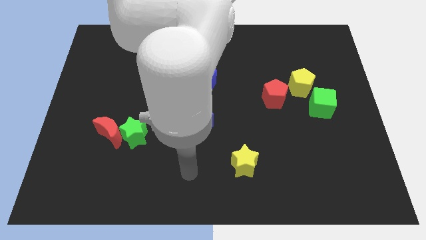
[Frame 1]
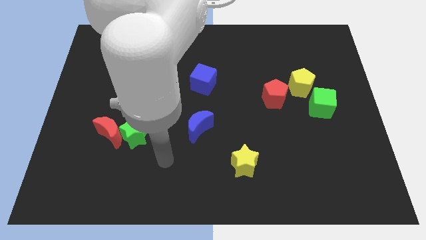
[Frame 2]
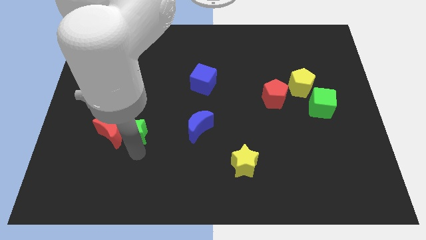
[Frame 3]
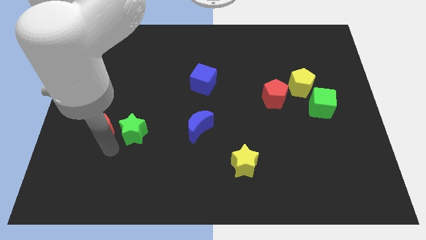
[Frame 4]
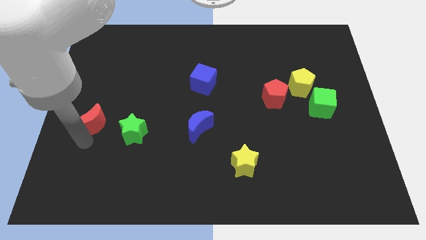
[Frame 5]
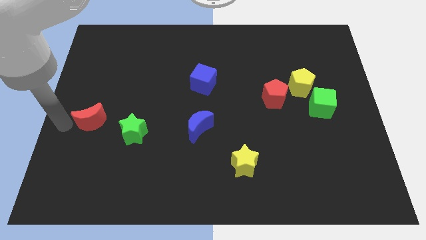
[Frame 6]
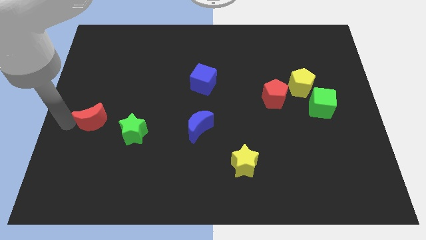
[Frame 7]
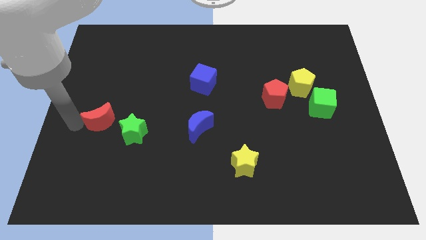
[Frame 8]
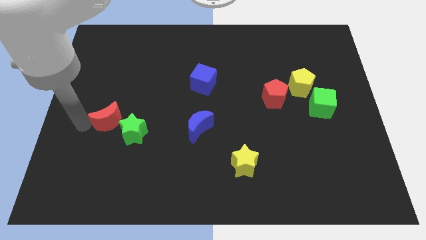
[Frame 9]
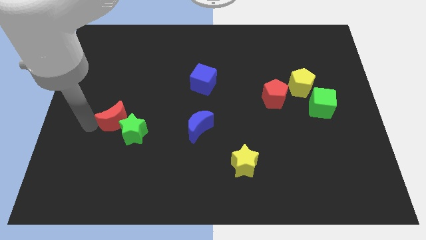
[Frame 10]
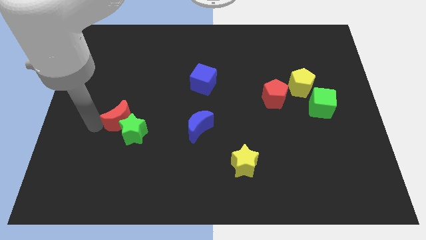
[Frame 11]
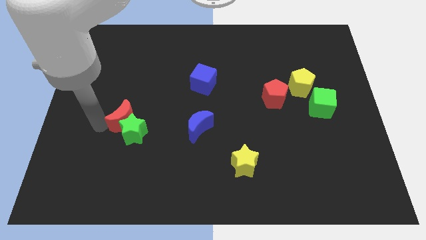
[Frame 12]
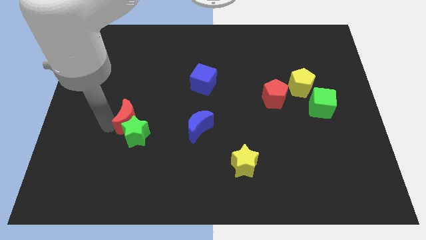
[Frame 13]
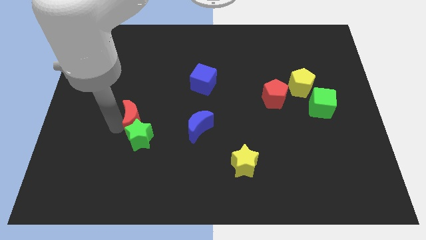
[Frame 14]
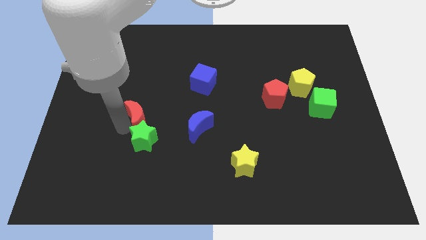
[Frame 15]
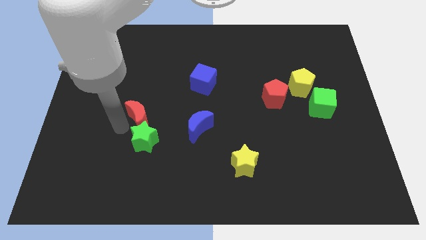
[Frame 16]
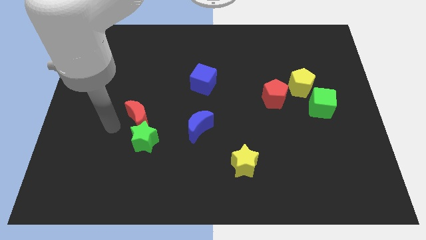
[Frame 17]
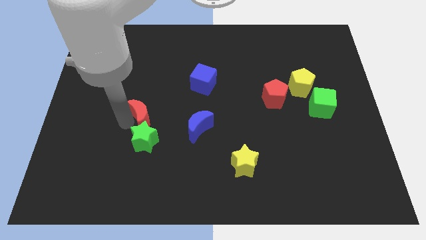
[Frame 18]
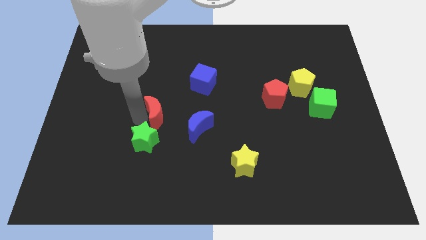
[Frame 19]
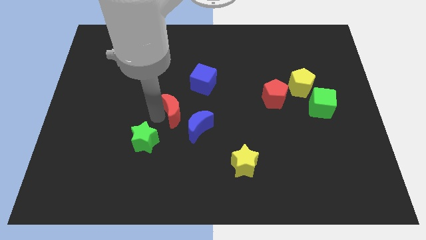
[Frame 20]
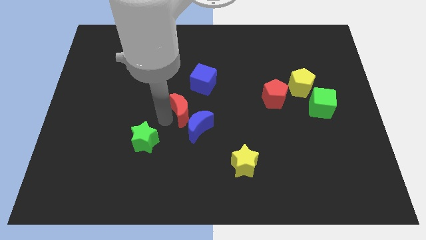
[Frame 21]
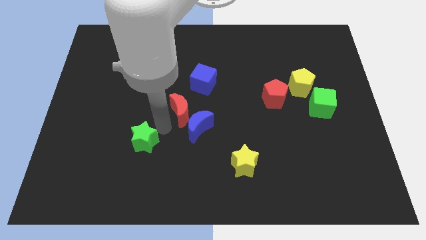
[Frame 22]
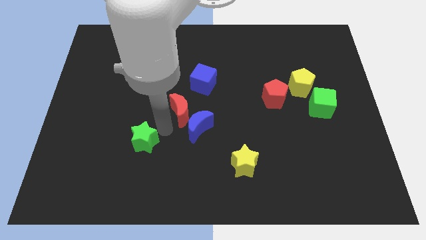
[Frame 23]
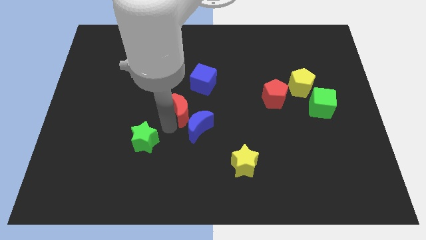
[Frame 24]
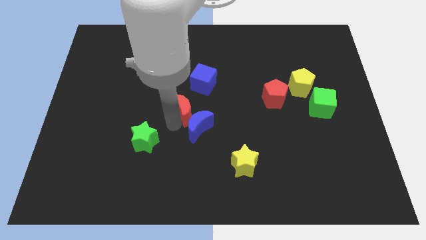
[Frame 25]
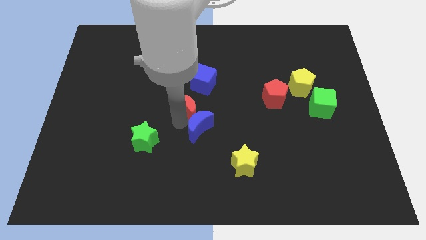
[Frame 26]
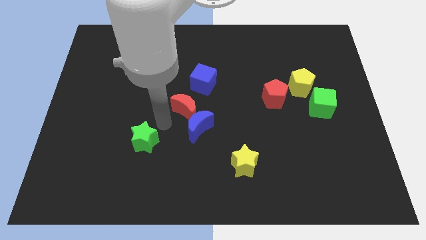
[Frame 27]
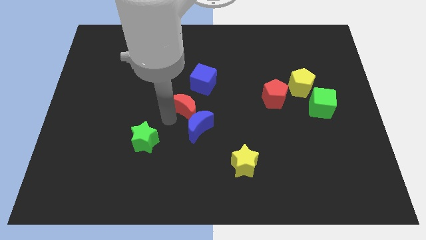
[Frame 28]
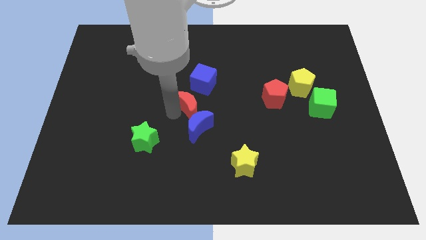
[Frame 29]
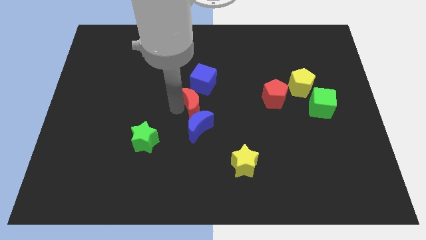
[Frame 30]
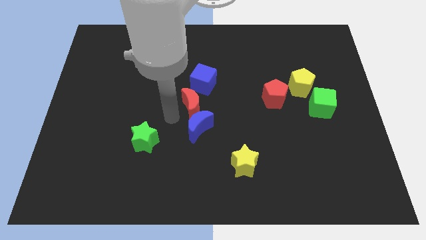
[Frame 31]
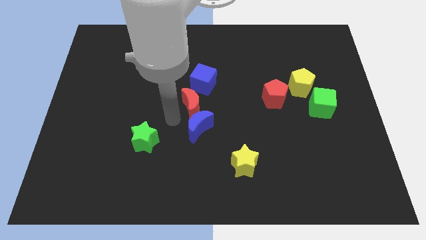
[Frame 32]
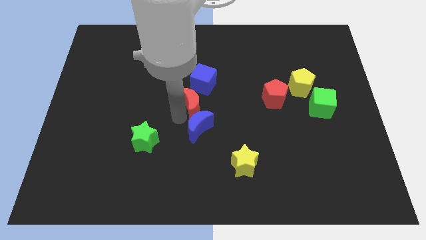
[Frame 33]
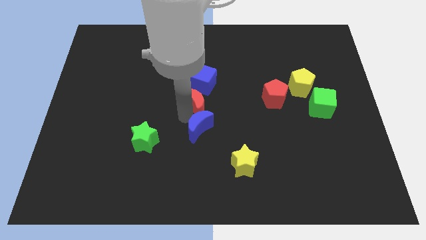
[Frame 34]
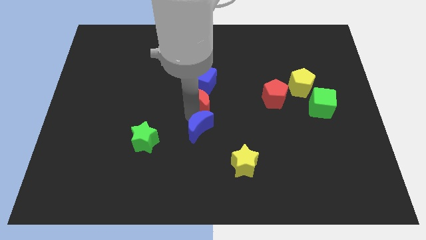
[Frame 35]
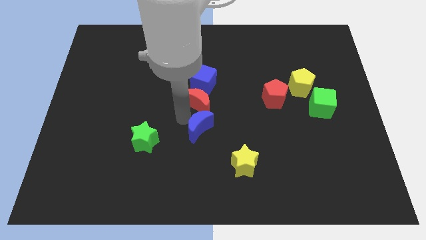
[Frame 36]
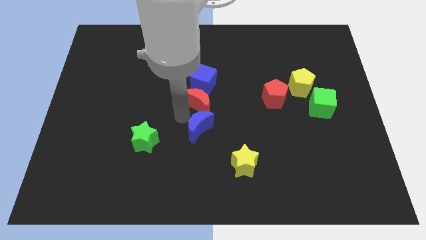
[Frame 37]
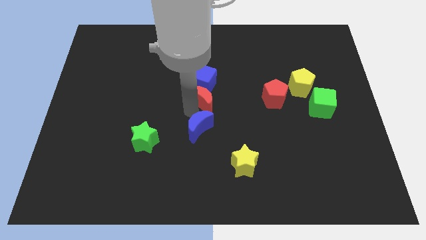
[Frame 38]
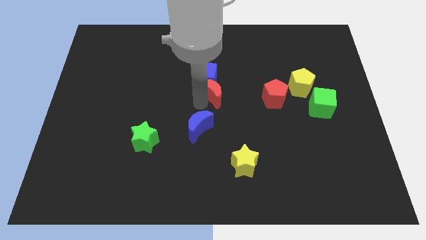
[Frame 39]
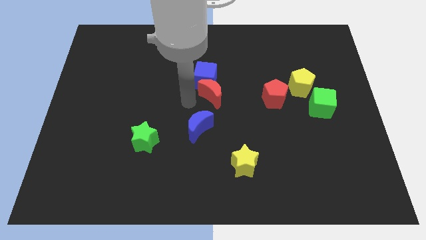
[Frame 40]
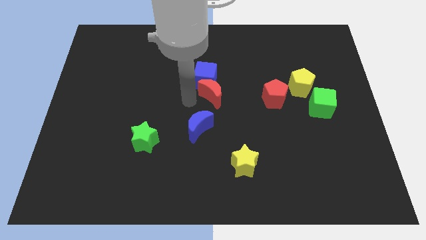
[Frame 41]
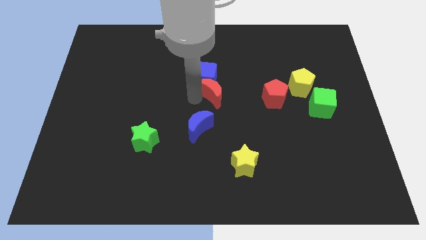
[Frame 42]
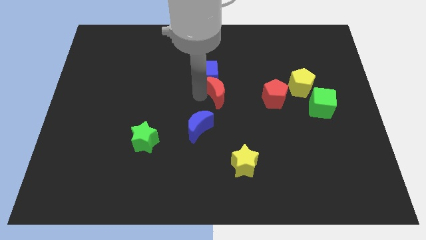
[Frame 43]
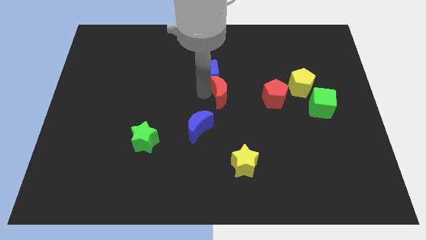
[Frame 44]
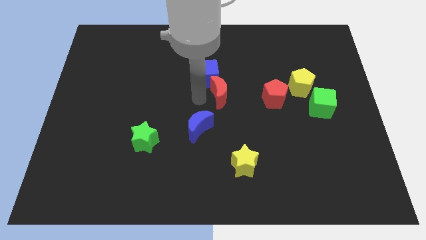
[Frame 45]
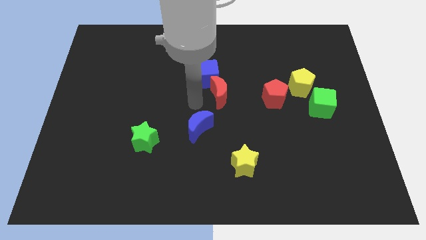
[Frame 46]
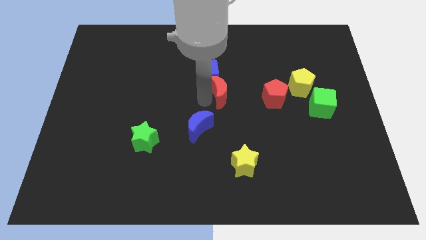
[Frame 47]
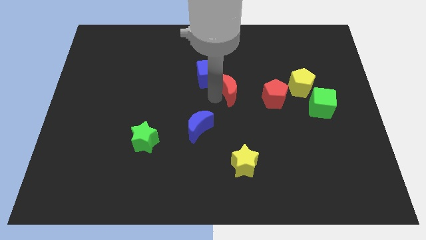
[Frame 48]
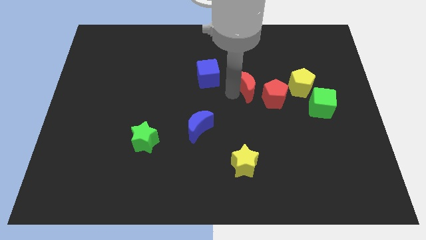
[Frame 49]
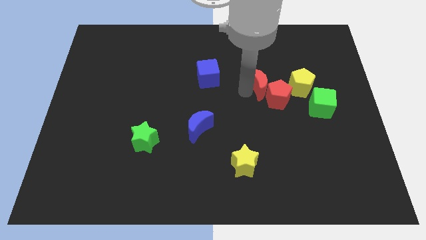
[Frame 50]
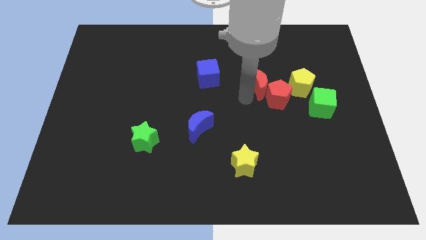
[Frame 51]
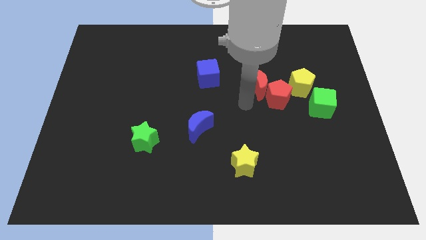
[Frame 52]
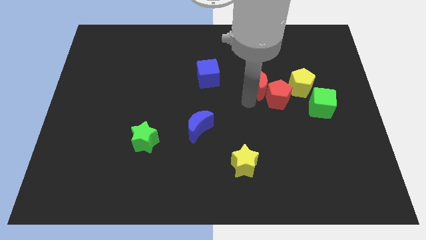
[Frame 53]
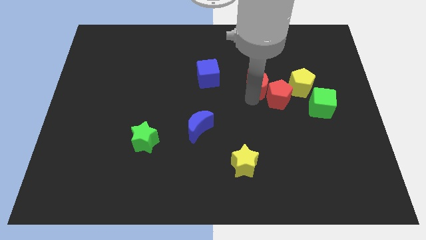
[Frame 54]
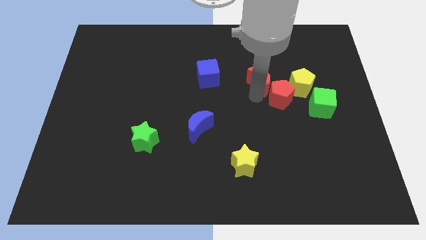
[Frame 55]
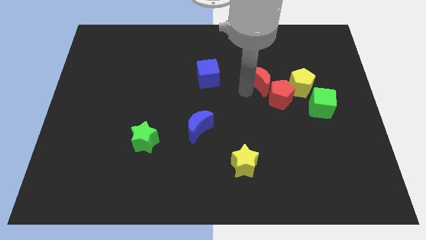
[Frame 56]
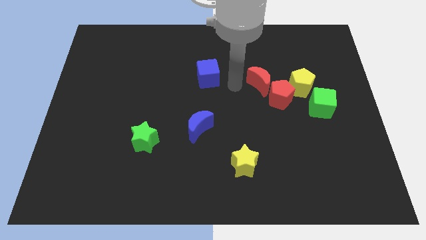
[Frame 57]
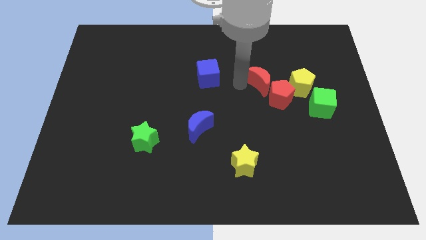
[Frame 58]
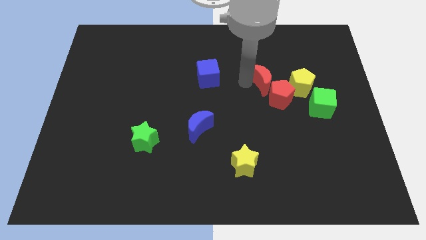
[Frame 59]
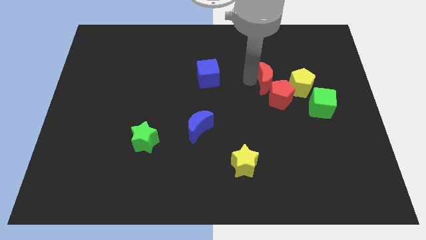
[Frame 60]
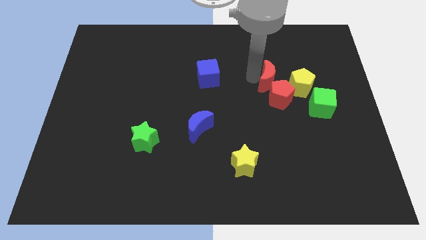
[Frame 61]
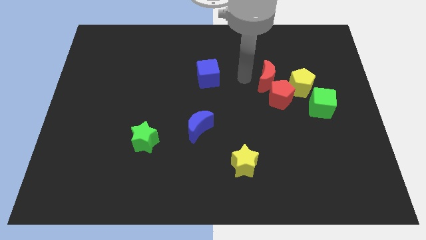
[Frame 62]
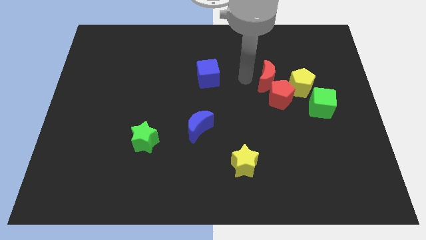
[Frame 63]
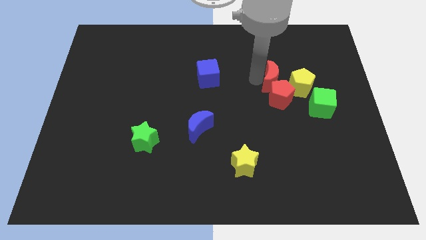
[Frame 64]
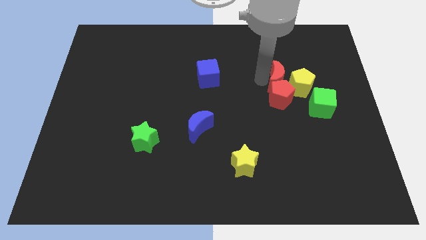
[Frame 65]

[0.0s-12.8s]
put the red moon to the top left side of the green cube

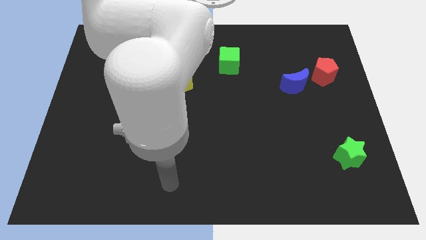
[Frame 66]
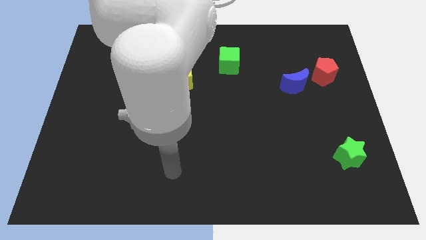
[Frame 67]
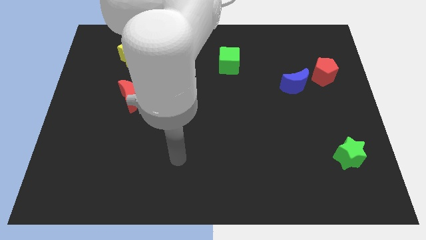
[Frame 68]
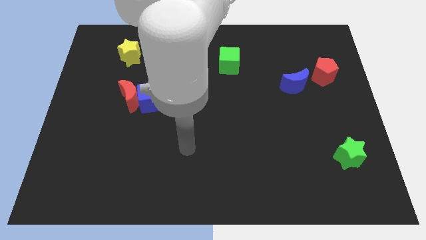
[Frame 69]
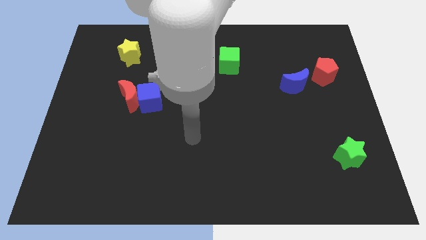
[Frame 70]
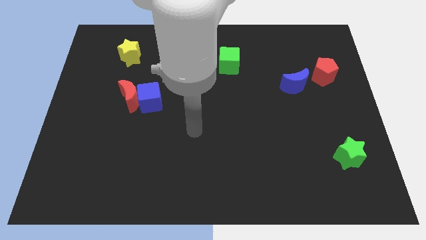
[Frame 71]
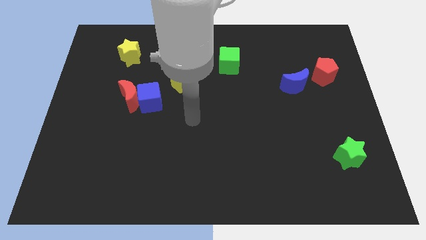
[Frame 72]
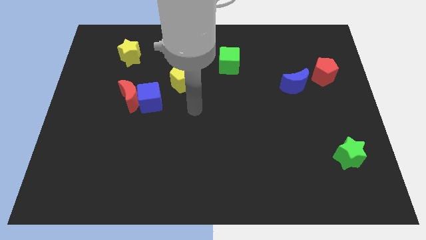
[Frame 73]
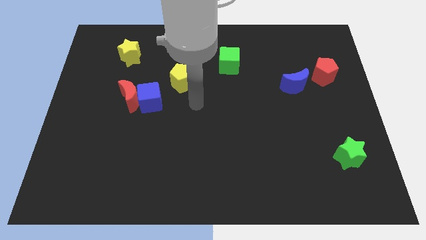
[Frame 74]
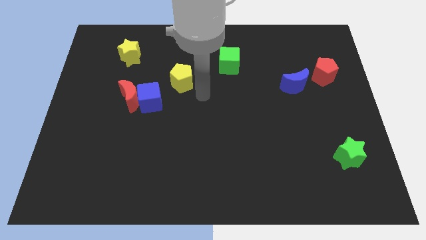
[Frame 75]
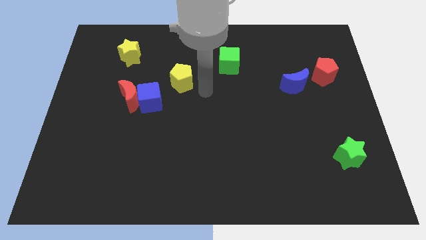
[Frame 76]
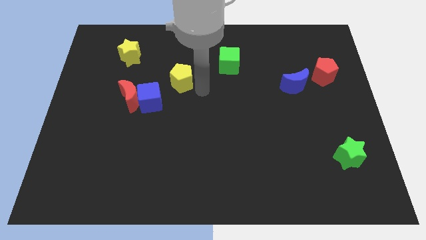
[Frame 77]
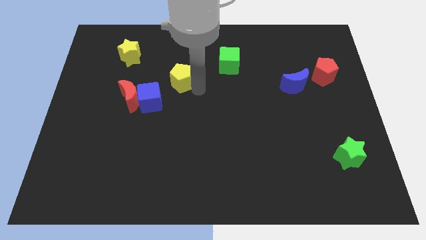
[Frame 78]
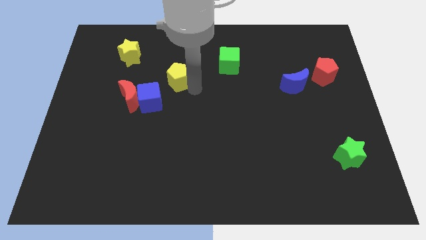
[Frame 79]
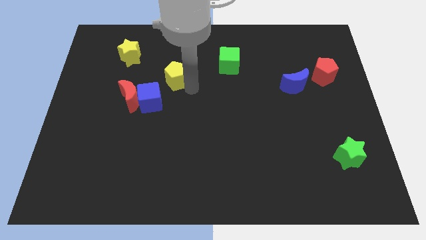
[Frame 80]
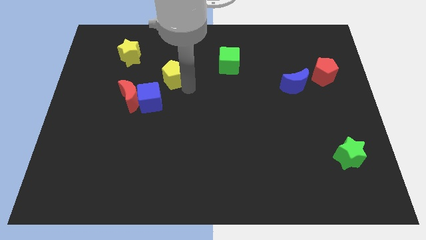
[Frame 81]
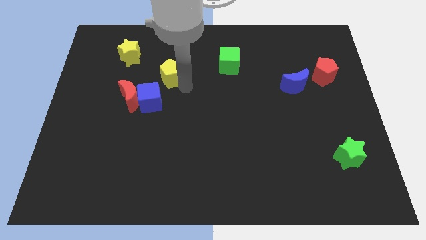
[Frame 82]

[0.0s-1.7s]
push the yellow pentagon to the top of the blue cube
